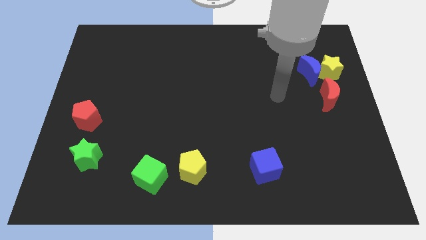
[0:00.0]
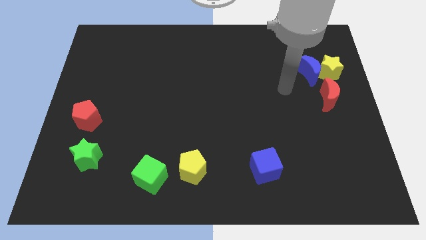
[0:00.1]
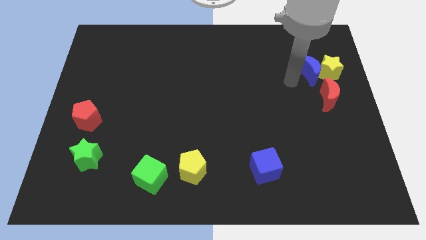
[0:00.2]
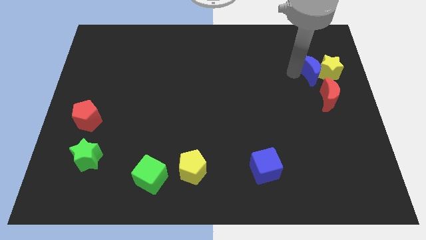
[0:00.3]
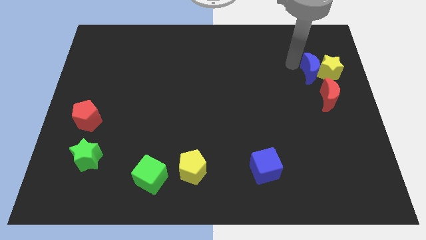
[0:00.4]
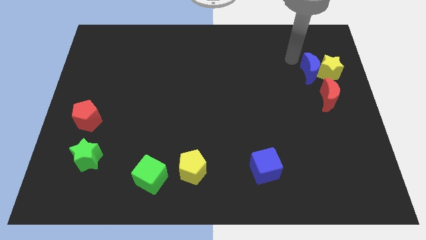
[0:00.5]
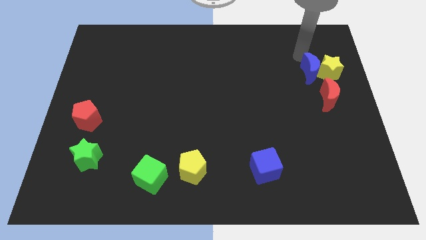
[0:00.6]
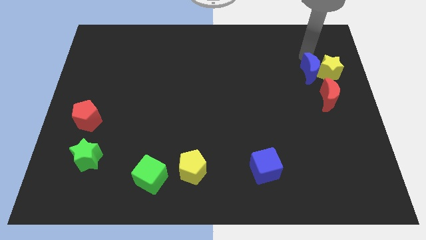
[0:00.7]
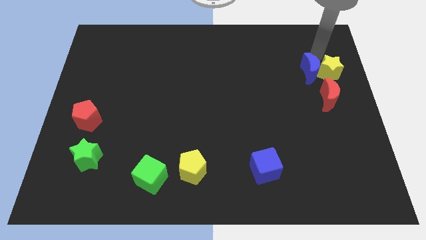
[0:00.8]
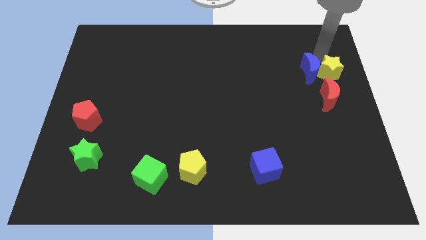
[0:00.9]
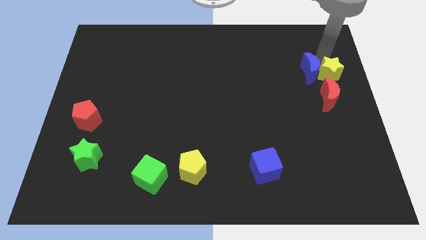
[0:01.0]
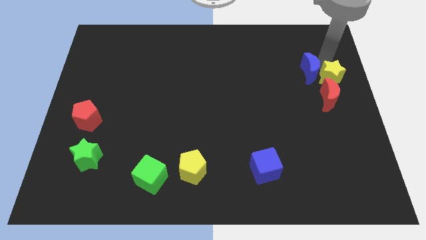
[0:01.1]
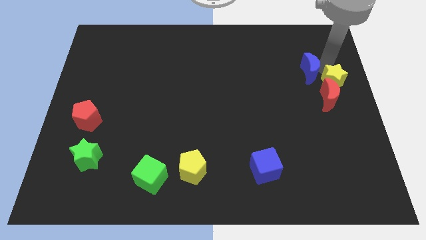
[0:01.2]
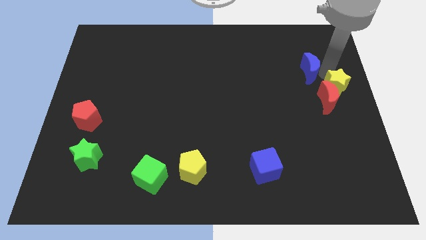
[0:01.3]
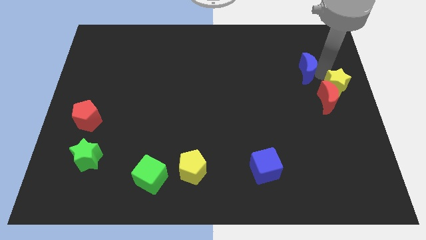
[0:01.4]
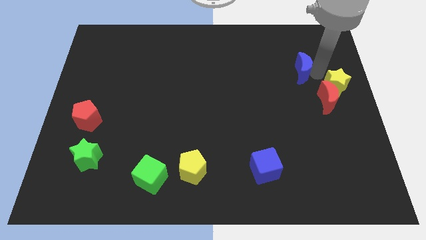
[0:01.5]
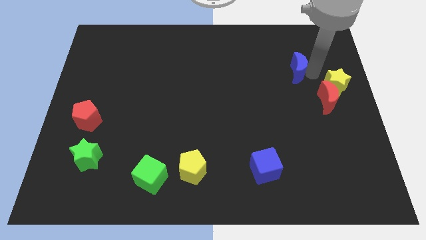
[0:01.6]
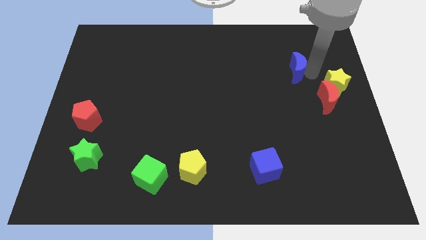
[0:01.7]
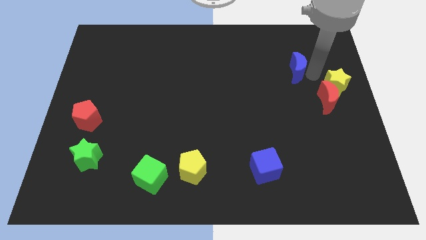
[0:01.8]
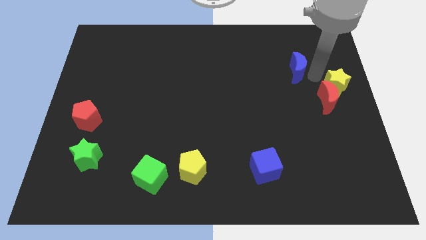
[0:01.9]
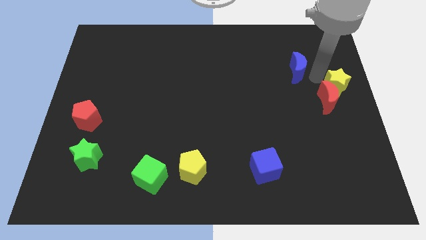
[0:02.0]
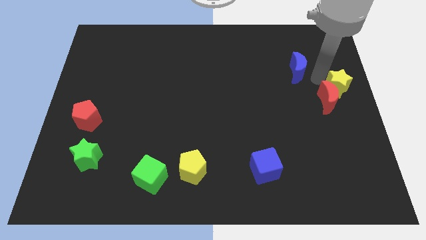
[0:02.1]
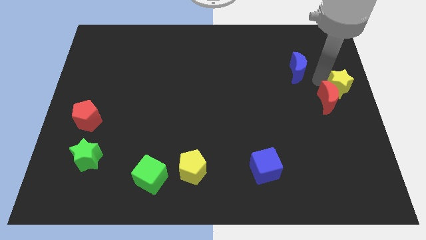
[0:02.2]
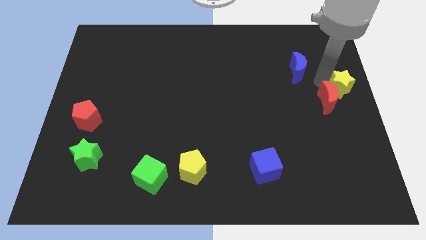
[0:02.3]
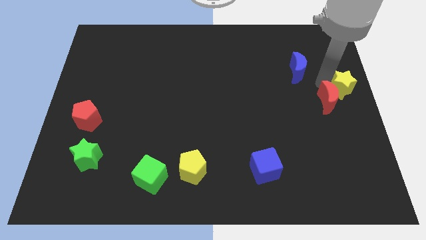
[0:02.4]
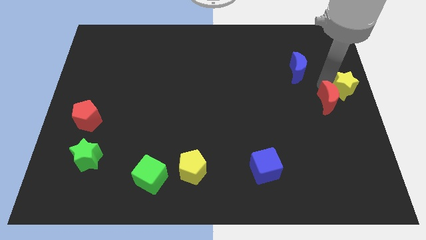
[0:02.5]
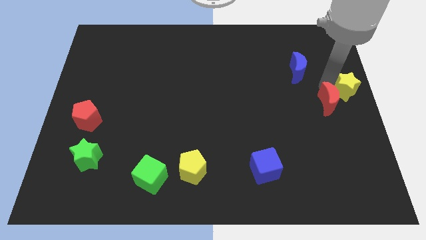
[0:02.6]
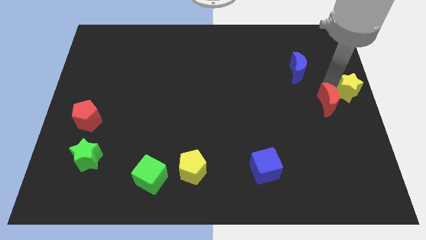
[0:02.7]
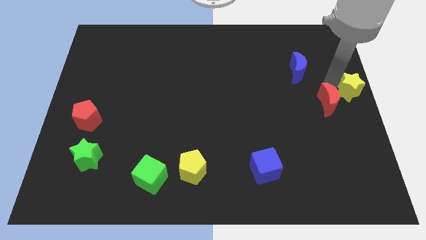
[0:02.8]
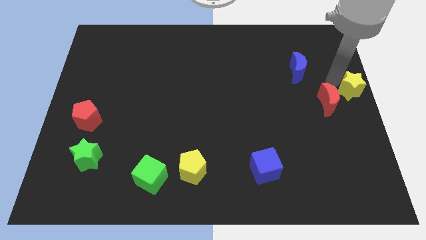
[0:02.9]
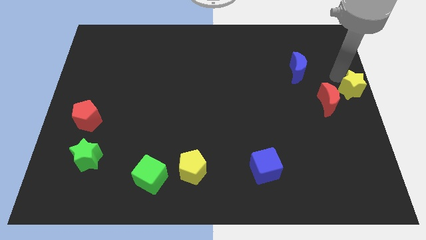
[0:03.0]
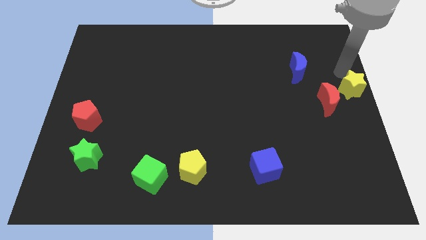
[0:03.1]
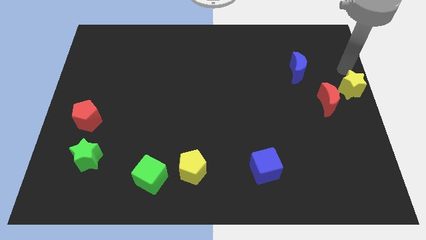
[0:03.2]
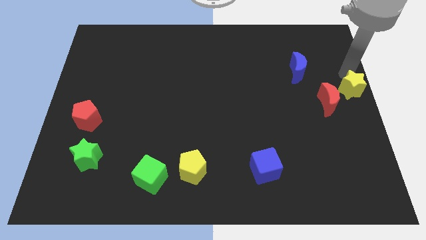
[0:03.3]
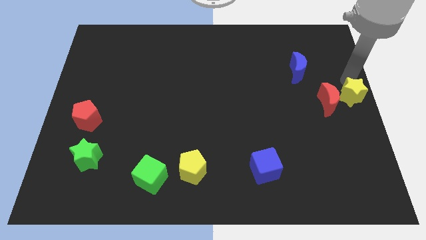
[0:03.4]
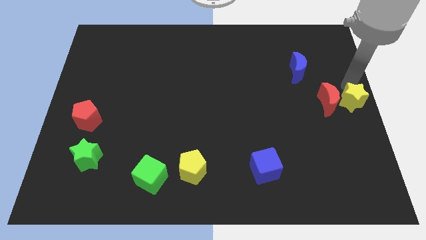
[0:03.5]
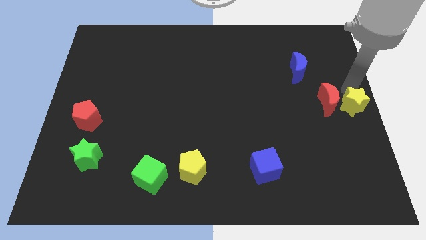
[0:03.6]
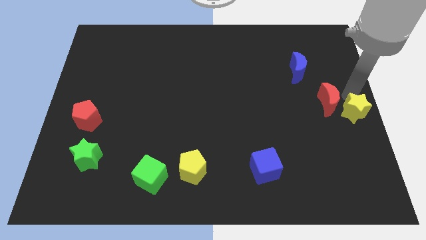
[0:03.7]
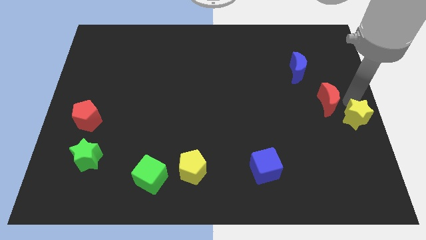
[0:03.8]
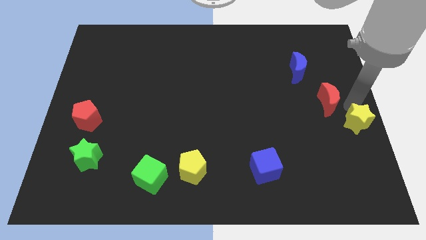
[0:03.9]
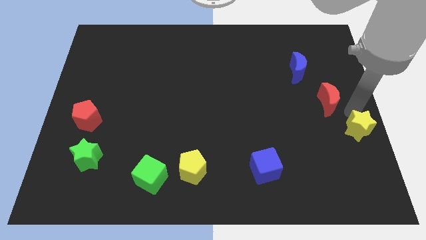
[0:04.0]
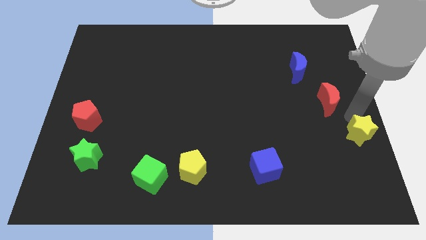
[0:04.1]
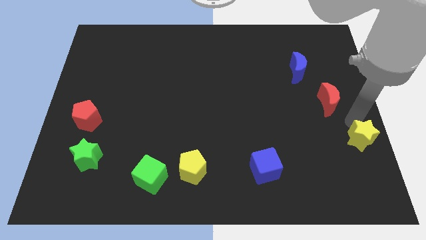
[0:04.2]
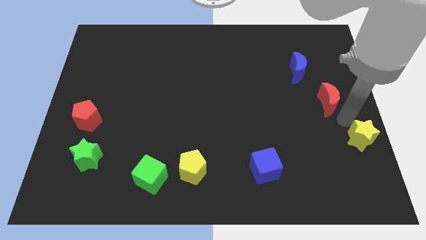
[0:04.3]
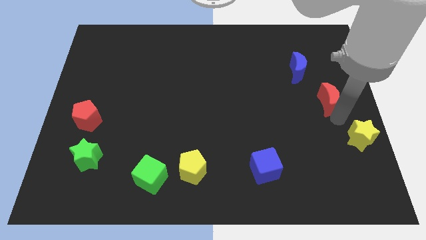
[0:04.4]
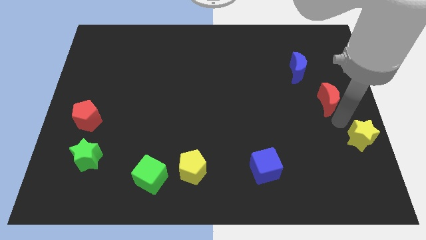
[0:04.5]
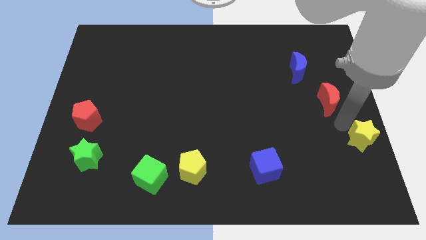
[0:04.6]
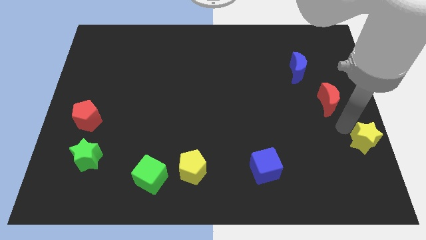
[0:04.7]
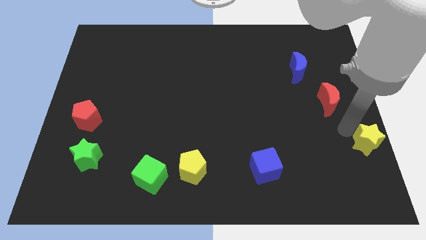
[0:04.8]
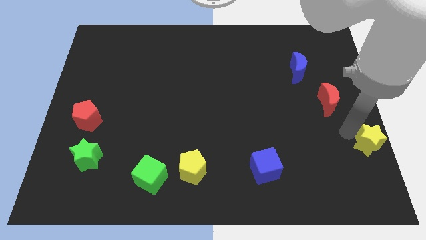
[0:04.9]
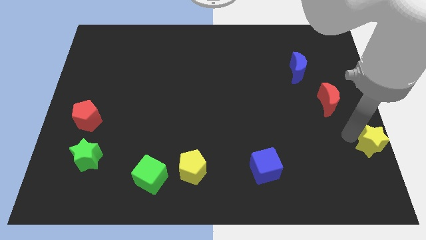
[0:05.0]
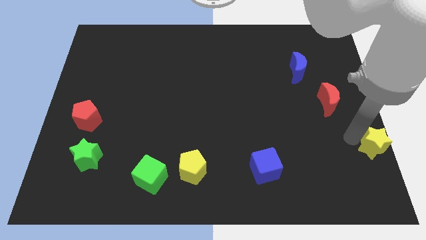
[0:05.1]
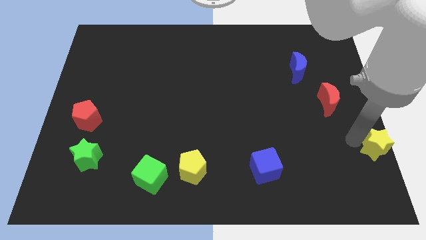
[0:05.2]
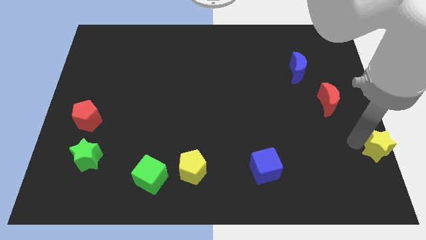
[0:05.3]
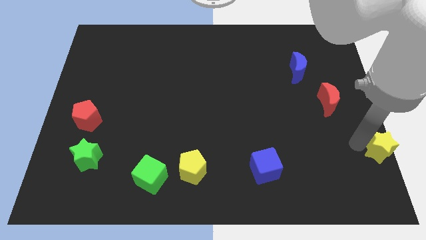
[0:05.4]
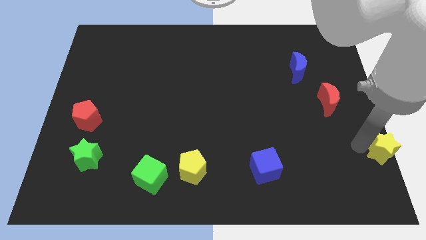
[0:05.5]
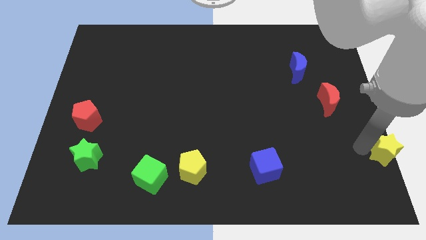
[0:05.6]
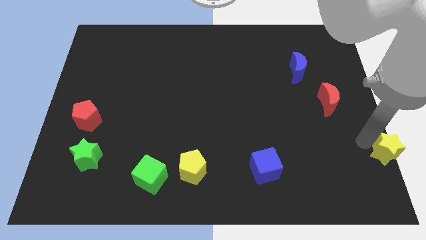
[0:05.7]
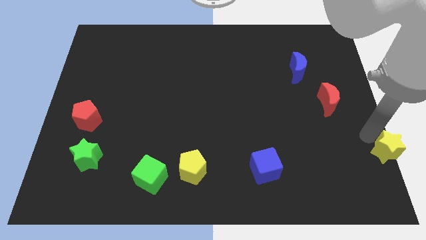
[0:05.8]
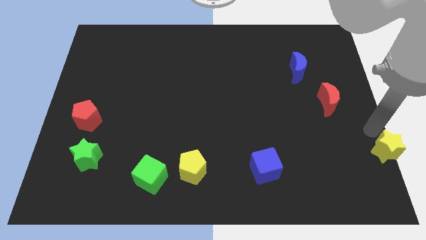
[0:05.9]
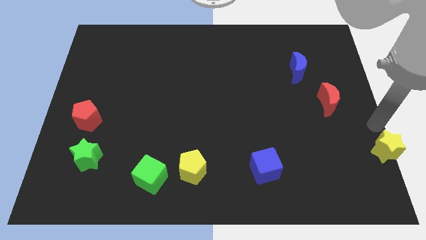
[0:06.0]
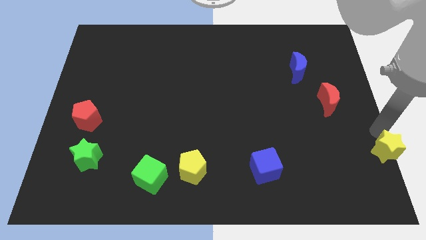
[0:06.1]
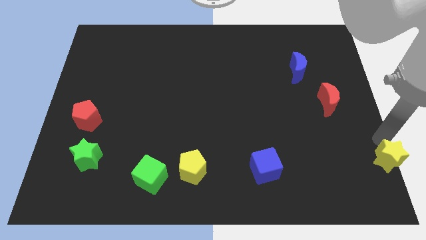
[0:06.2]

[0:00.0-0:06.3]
push the yellow star to the lower right corner
